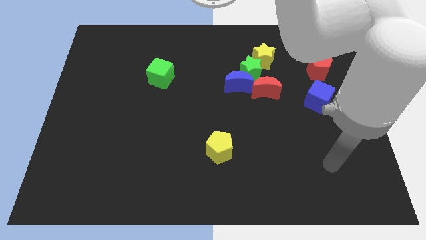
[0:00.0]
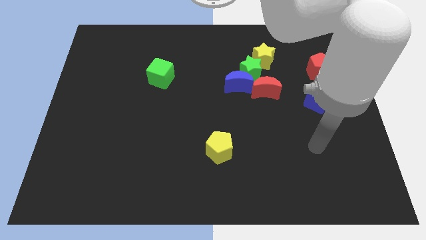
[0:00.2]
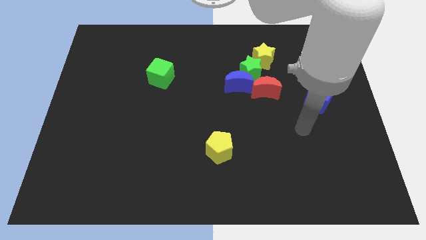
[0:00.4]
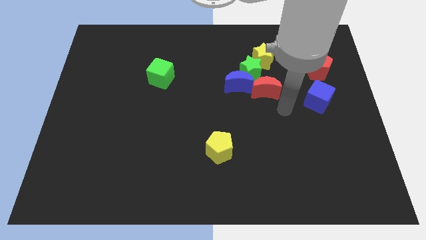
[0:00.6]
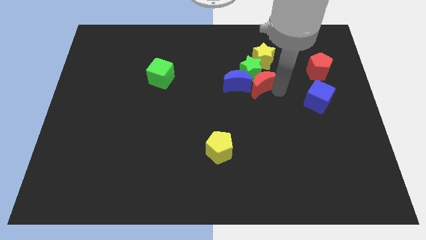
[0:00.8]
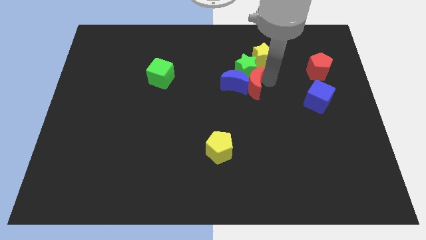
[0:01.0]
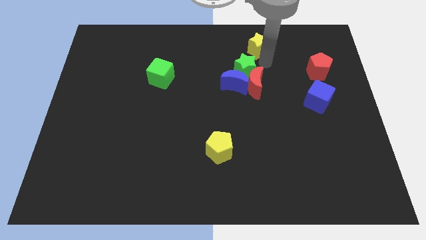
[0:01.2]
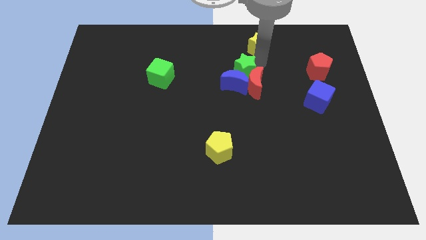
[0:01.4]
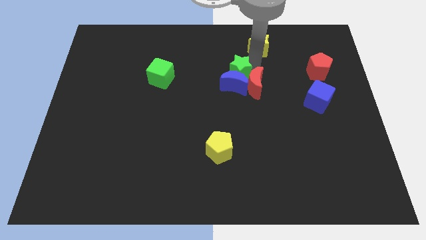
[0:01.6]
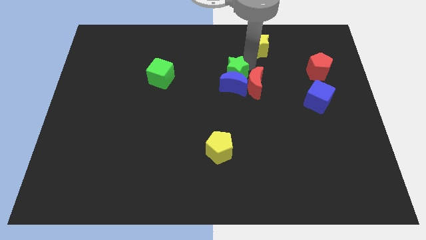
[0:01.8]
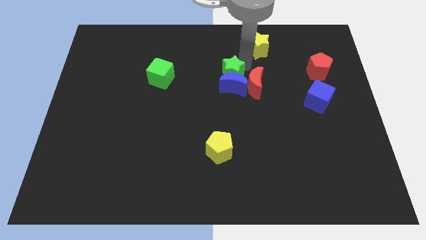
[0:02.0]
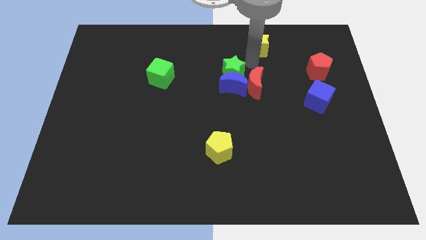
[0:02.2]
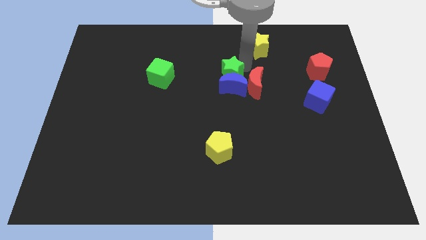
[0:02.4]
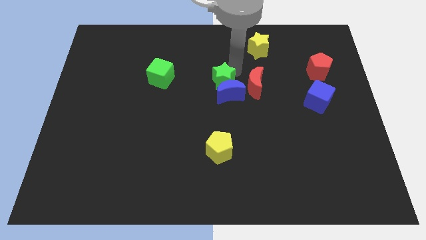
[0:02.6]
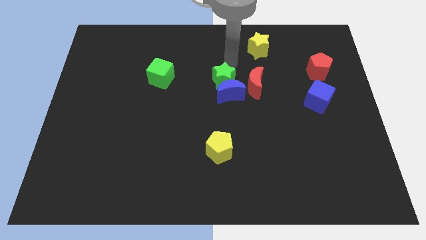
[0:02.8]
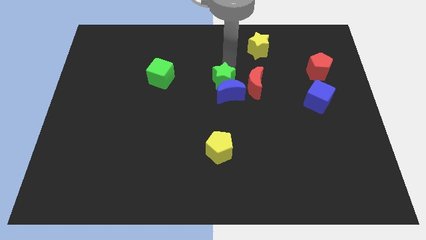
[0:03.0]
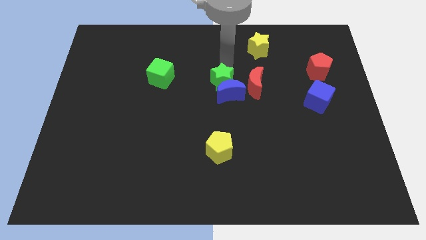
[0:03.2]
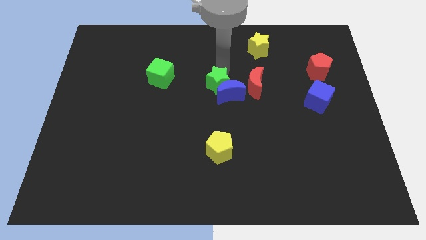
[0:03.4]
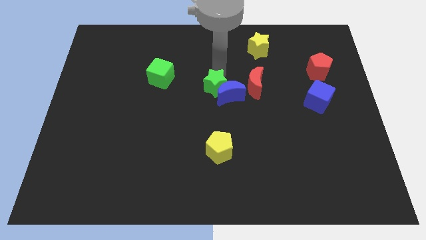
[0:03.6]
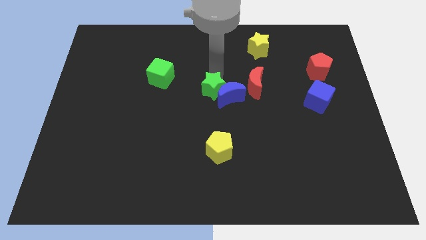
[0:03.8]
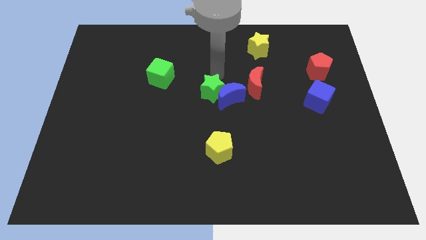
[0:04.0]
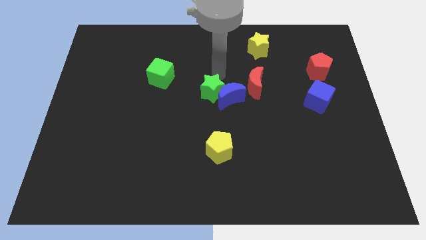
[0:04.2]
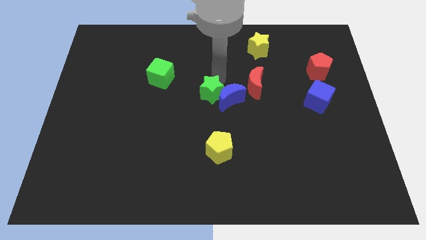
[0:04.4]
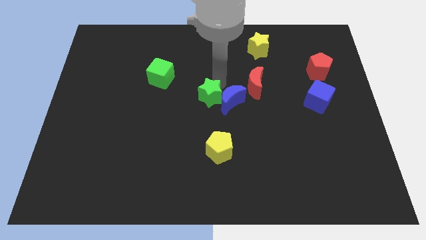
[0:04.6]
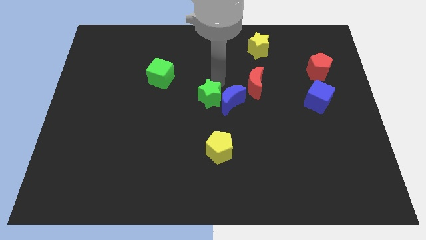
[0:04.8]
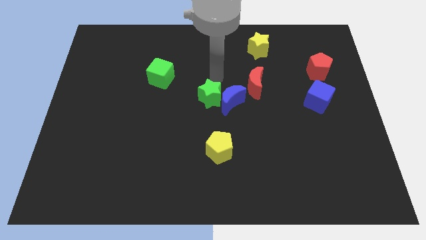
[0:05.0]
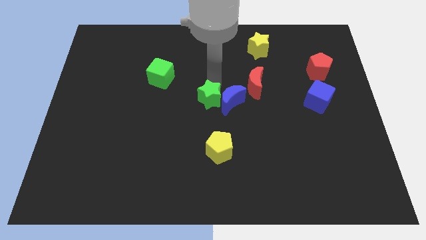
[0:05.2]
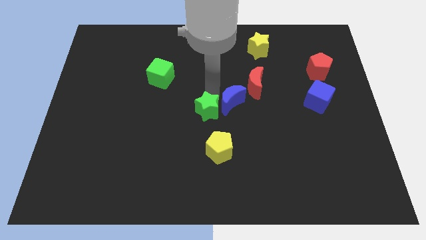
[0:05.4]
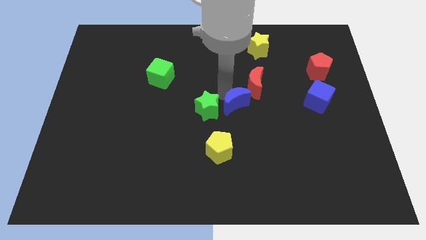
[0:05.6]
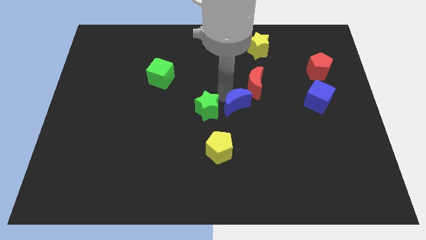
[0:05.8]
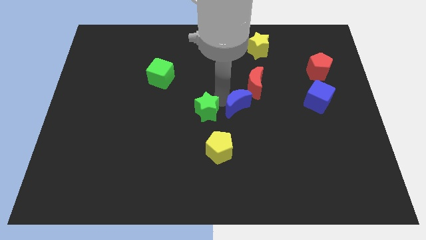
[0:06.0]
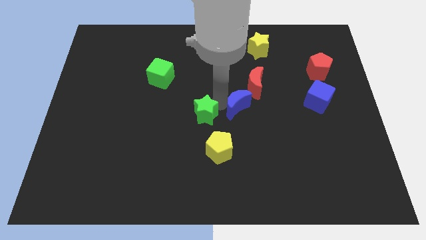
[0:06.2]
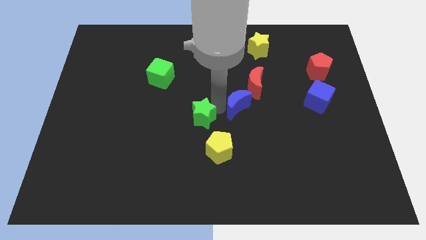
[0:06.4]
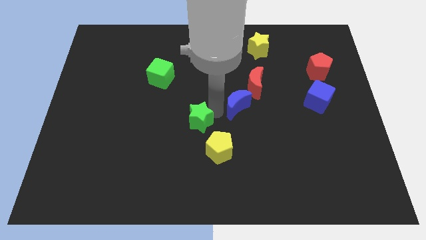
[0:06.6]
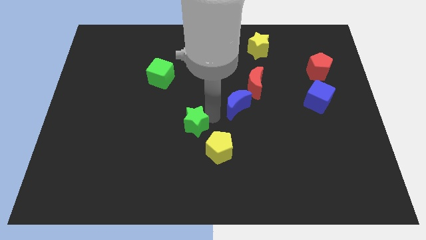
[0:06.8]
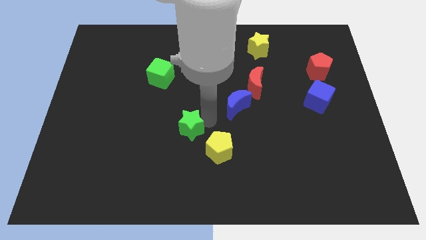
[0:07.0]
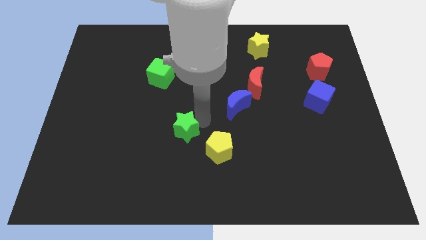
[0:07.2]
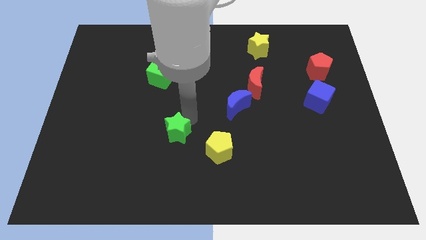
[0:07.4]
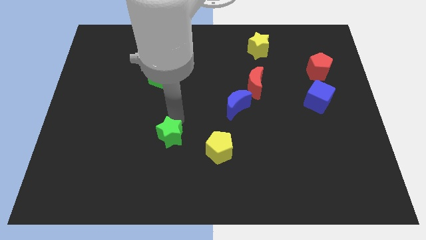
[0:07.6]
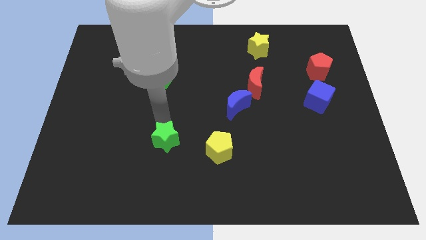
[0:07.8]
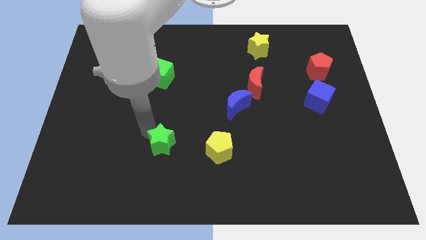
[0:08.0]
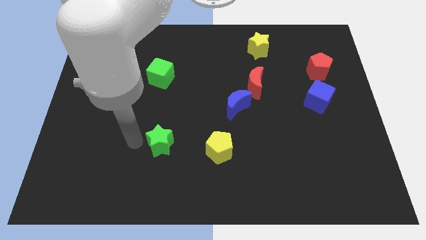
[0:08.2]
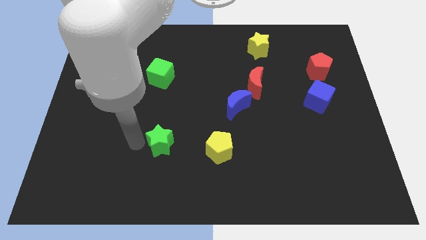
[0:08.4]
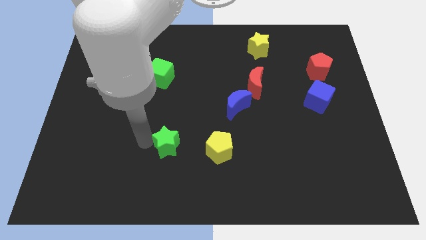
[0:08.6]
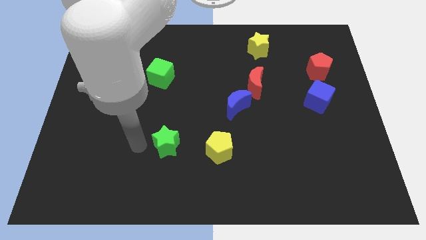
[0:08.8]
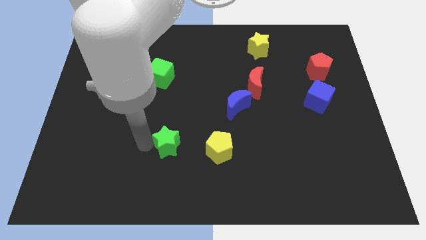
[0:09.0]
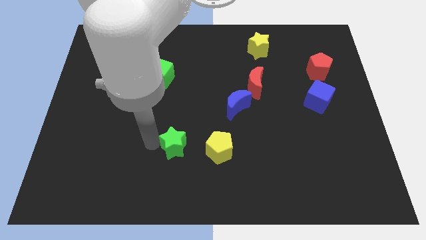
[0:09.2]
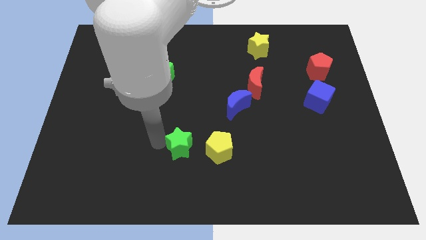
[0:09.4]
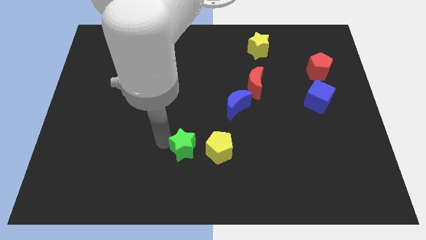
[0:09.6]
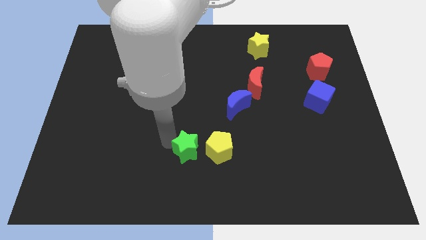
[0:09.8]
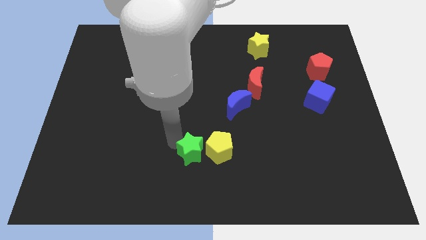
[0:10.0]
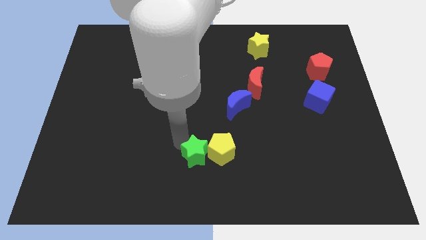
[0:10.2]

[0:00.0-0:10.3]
push the green star to the bottom side

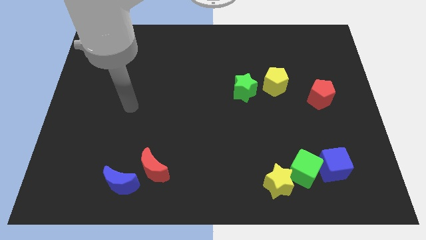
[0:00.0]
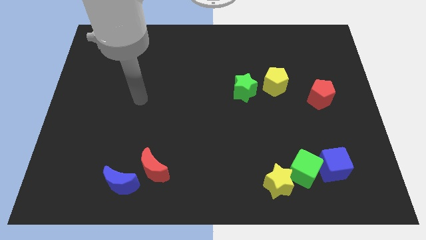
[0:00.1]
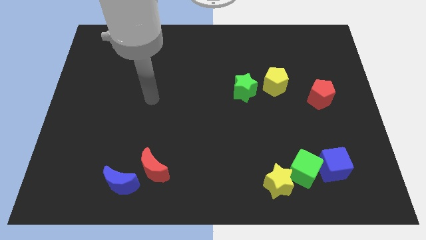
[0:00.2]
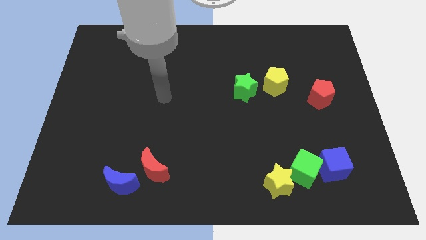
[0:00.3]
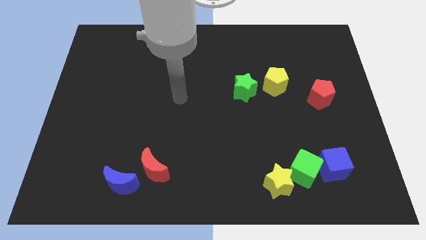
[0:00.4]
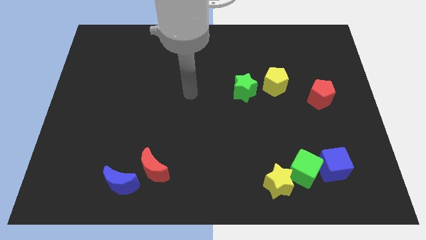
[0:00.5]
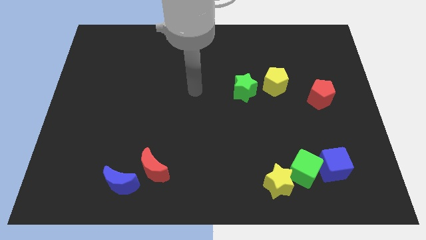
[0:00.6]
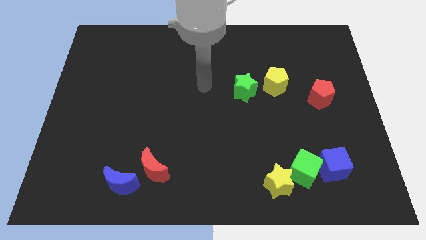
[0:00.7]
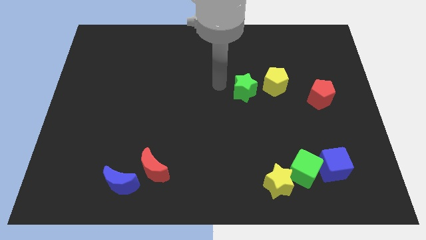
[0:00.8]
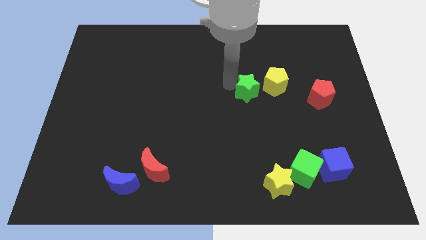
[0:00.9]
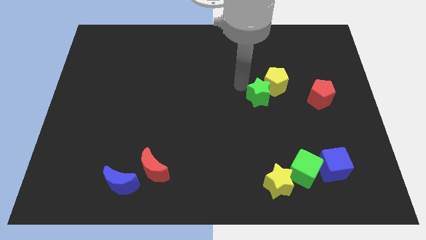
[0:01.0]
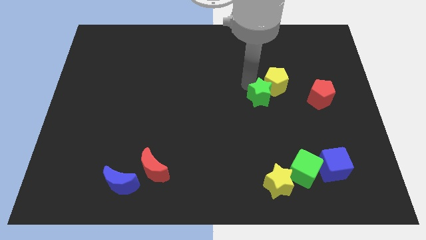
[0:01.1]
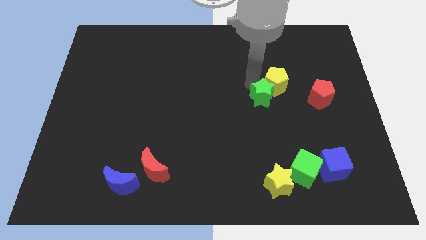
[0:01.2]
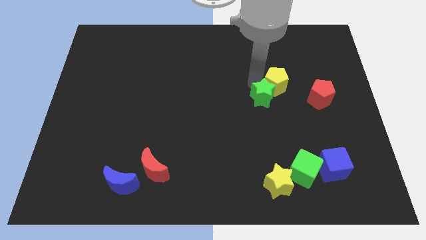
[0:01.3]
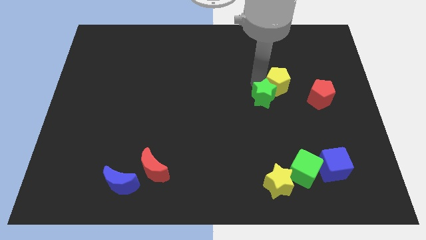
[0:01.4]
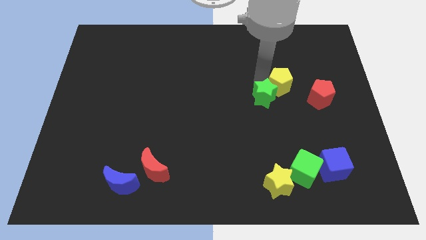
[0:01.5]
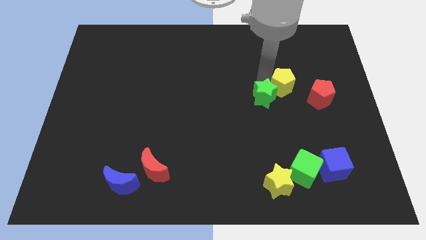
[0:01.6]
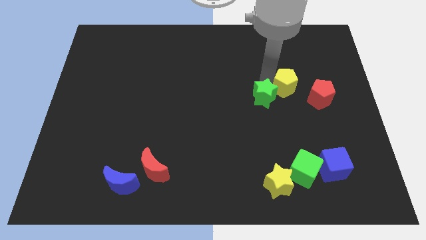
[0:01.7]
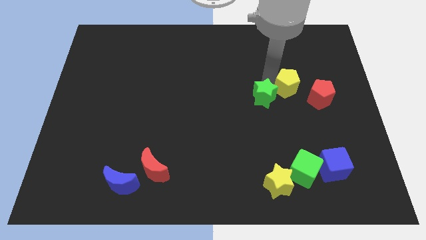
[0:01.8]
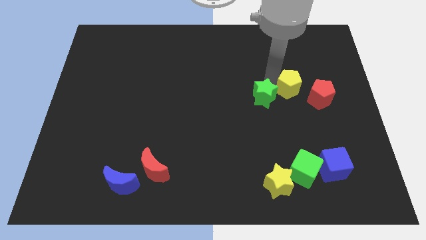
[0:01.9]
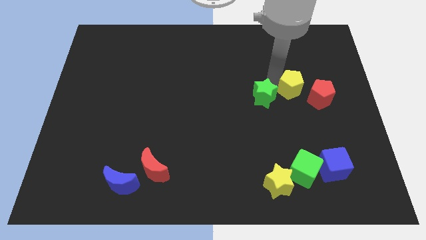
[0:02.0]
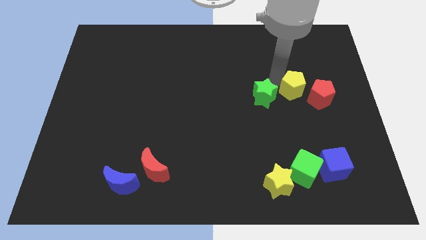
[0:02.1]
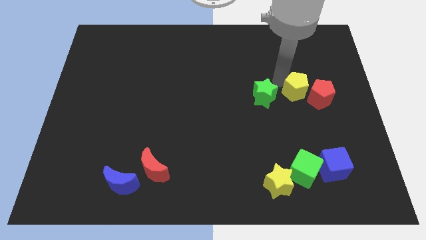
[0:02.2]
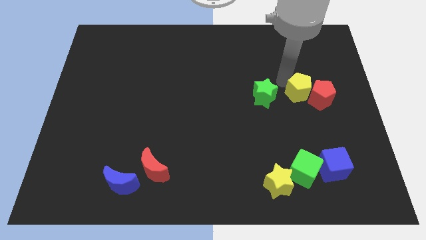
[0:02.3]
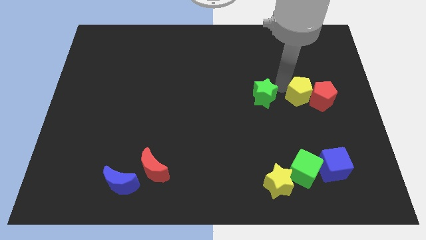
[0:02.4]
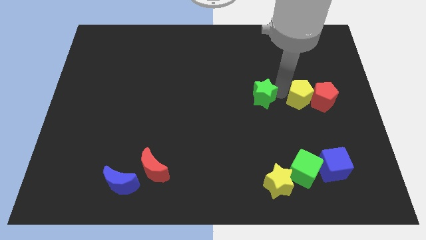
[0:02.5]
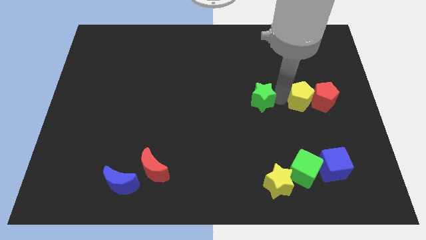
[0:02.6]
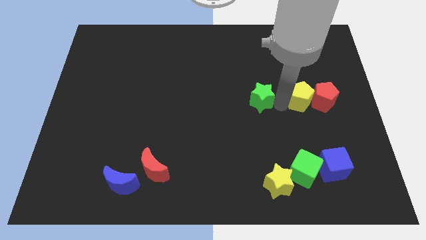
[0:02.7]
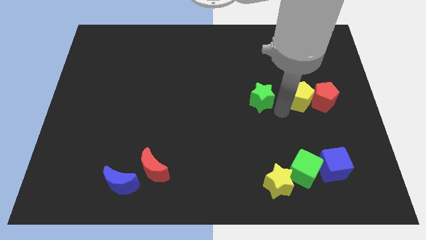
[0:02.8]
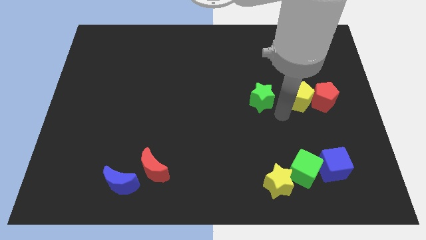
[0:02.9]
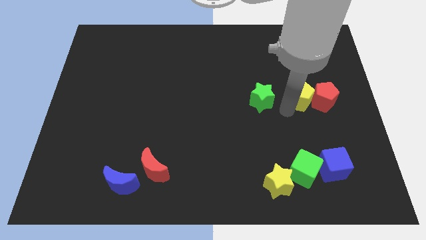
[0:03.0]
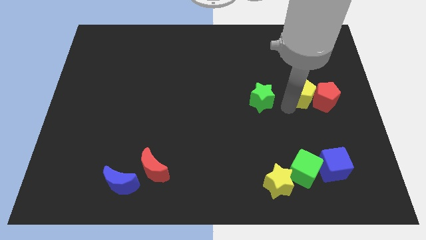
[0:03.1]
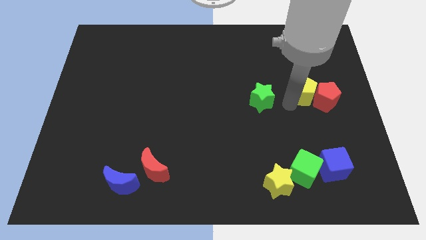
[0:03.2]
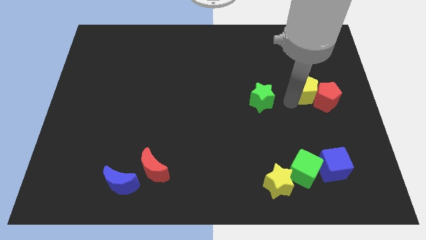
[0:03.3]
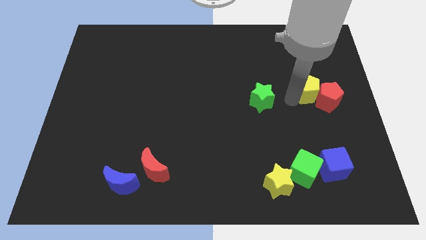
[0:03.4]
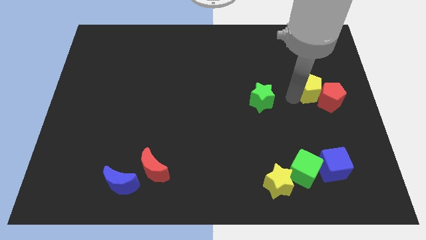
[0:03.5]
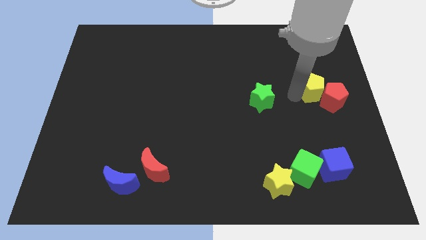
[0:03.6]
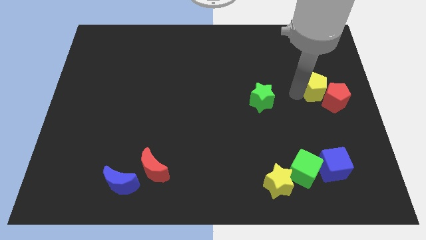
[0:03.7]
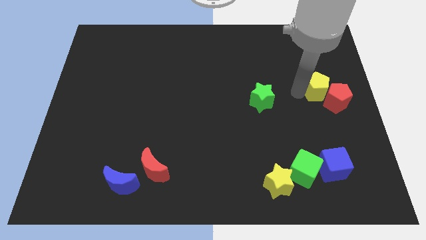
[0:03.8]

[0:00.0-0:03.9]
put the yellow pentagon to the right side
